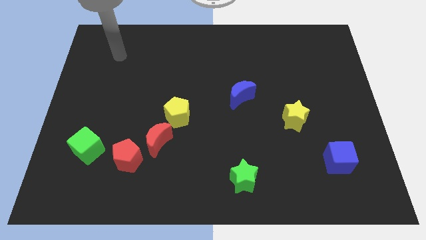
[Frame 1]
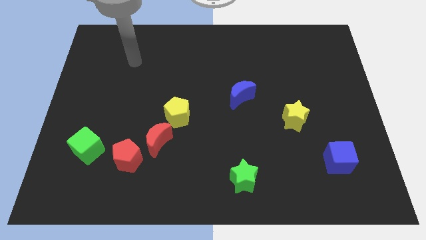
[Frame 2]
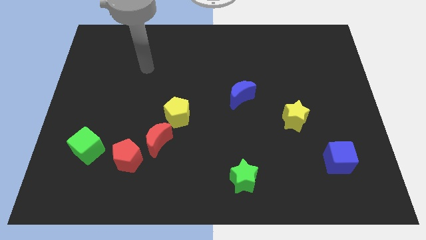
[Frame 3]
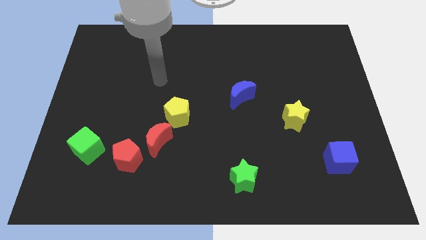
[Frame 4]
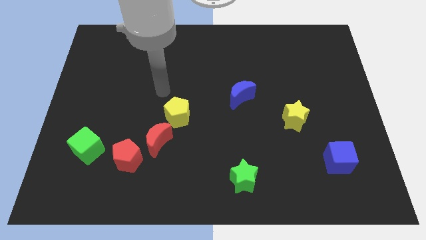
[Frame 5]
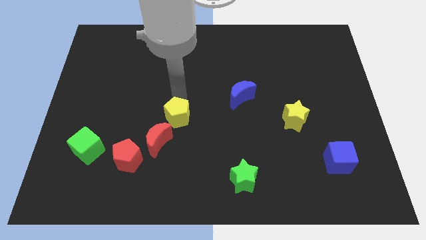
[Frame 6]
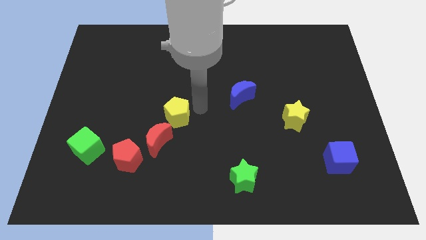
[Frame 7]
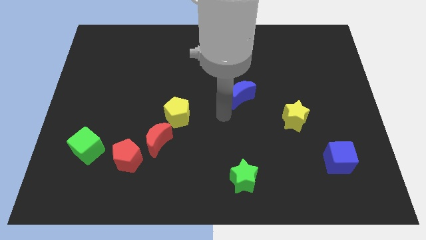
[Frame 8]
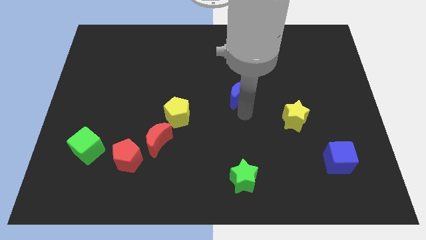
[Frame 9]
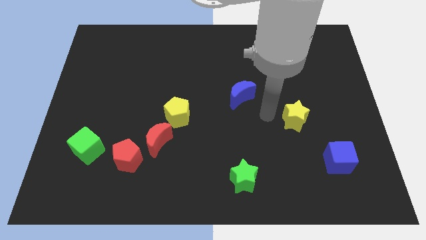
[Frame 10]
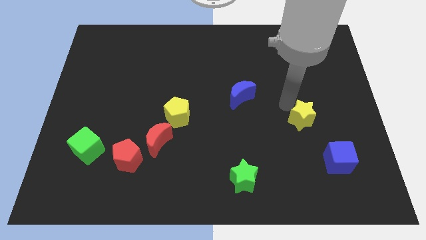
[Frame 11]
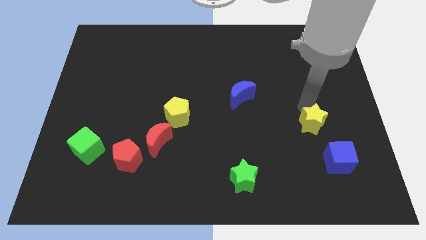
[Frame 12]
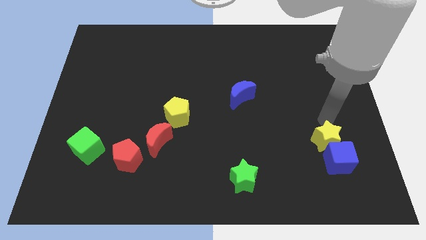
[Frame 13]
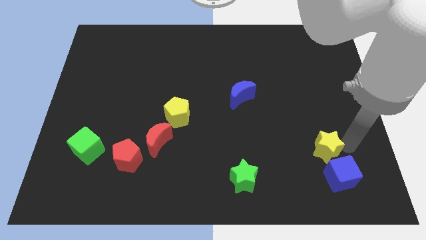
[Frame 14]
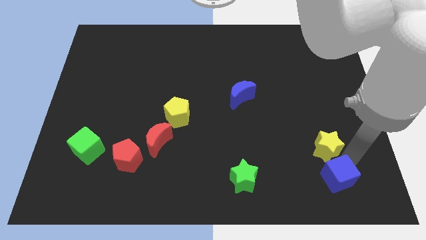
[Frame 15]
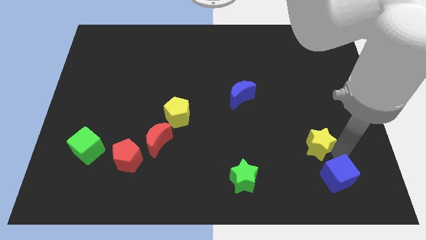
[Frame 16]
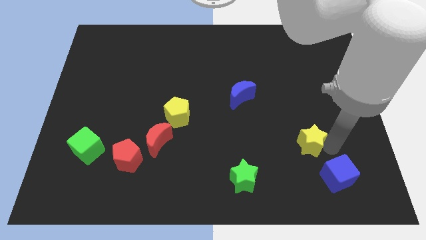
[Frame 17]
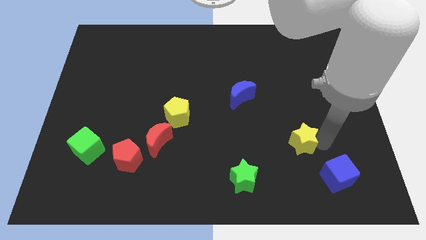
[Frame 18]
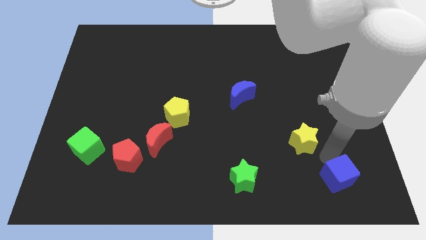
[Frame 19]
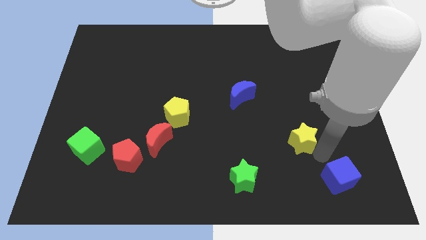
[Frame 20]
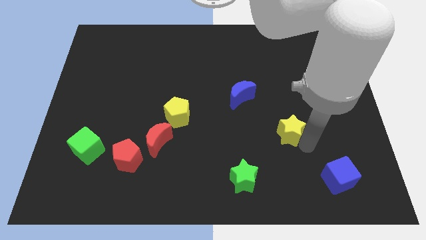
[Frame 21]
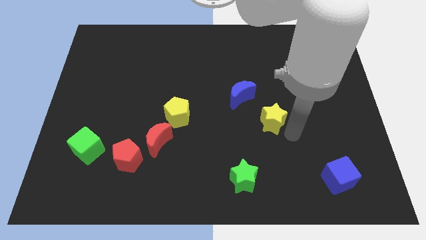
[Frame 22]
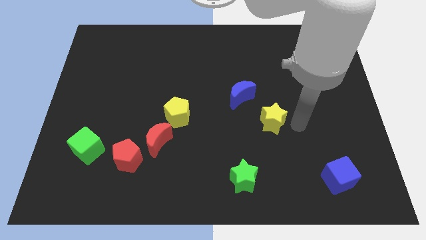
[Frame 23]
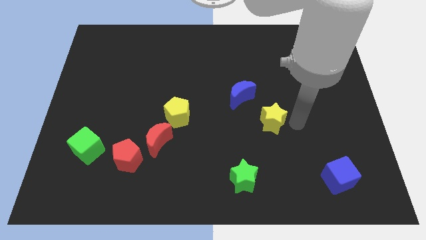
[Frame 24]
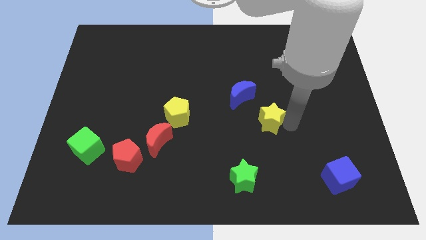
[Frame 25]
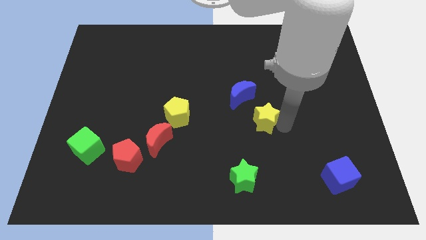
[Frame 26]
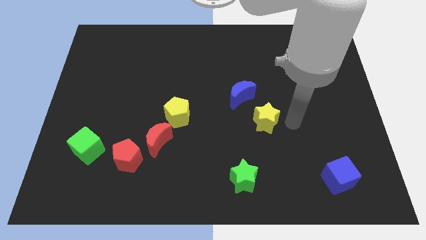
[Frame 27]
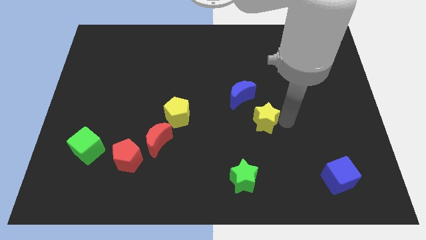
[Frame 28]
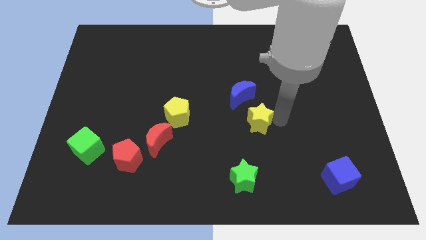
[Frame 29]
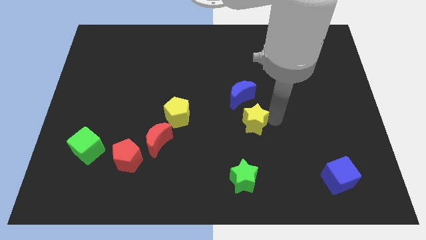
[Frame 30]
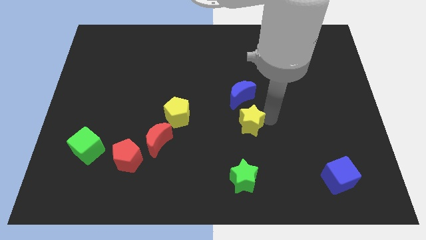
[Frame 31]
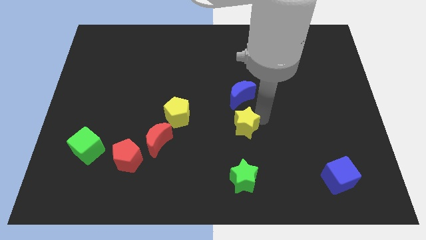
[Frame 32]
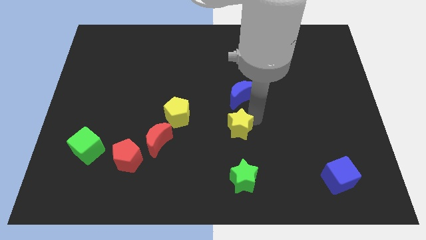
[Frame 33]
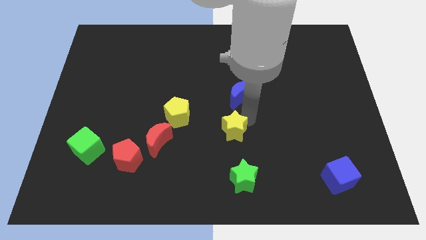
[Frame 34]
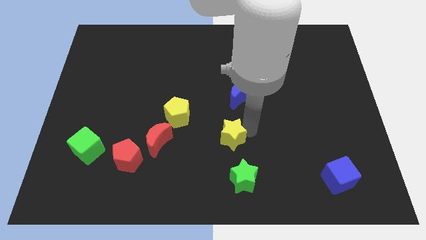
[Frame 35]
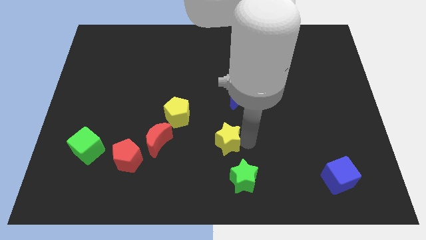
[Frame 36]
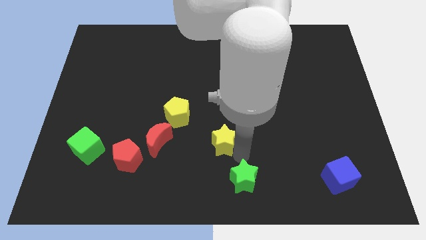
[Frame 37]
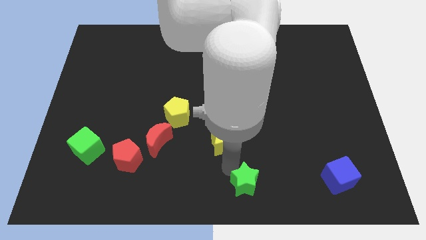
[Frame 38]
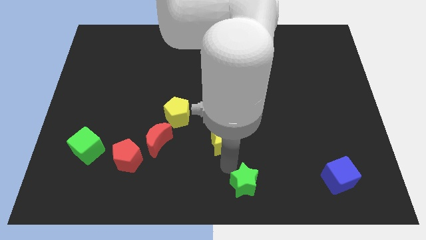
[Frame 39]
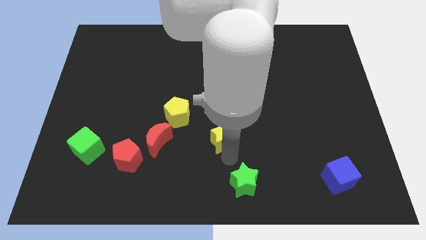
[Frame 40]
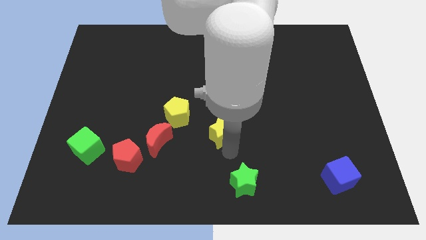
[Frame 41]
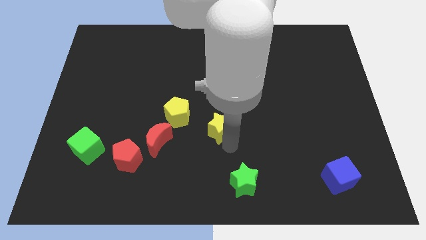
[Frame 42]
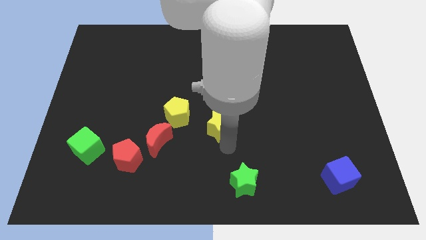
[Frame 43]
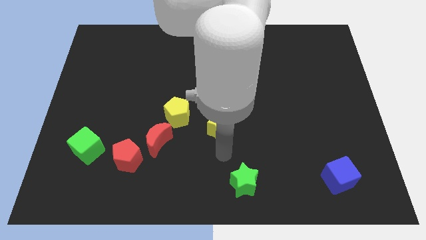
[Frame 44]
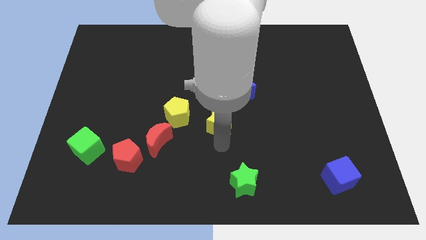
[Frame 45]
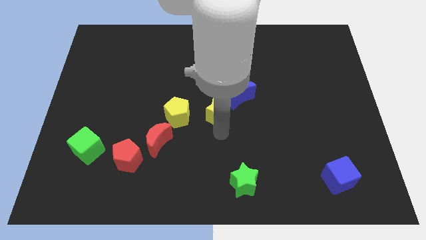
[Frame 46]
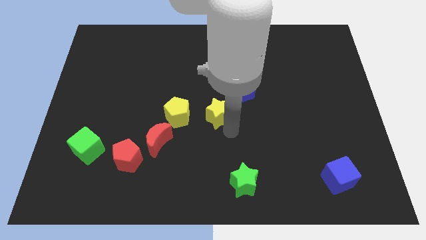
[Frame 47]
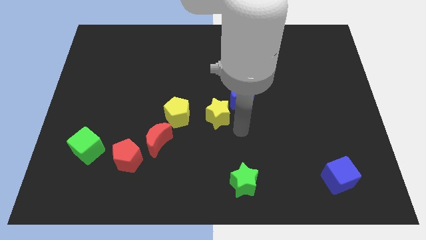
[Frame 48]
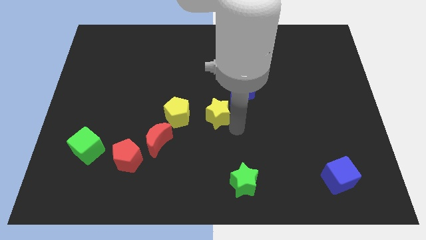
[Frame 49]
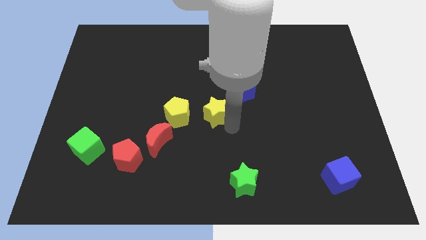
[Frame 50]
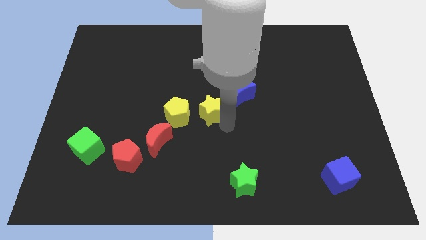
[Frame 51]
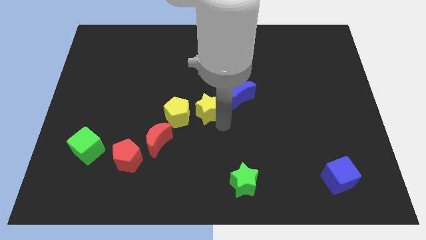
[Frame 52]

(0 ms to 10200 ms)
move the yellow star left

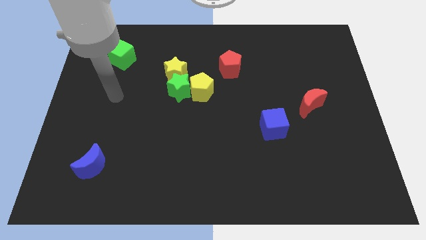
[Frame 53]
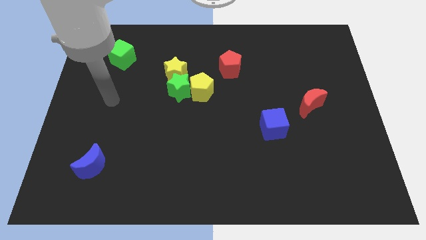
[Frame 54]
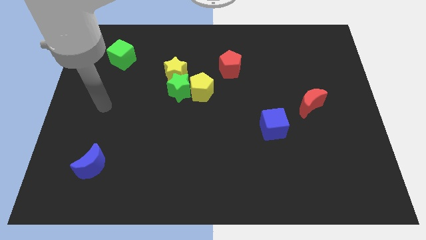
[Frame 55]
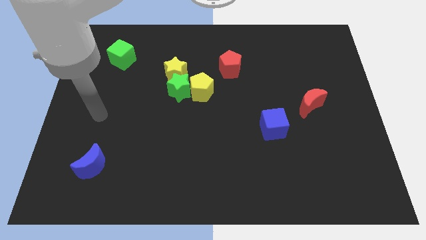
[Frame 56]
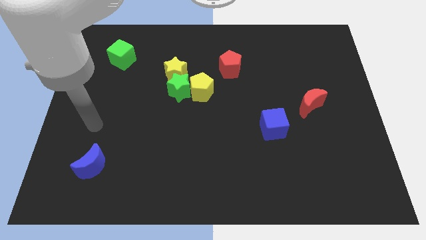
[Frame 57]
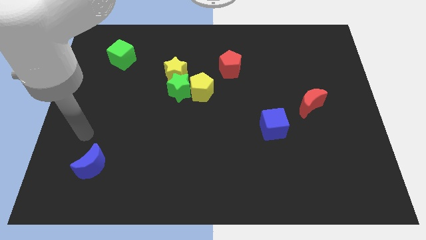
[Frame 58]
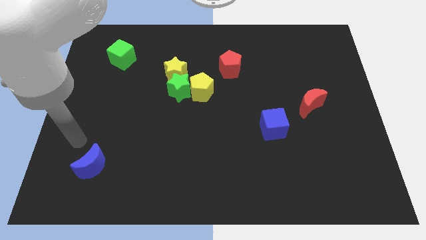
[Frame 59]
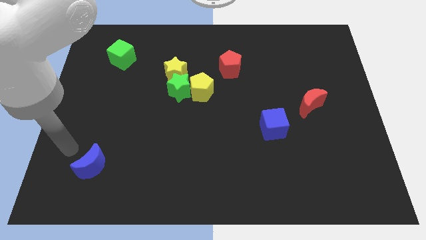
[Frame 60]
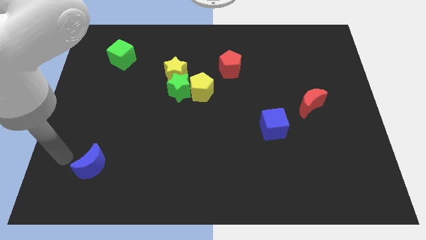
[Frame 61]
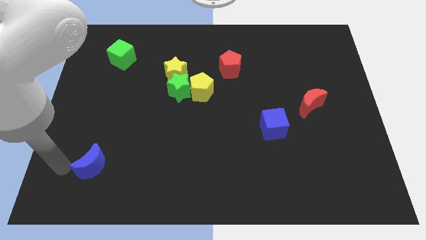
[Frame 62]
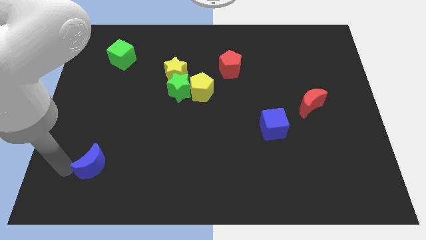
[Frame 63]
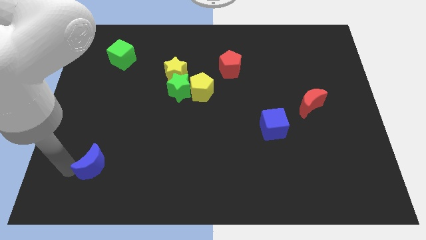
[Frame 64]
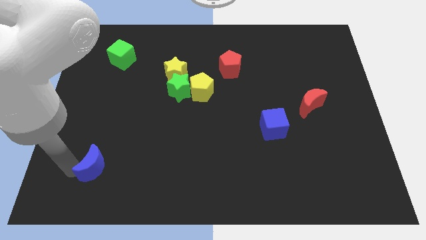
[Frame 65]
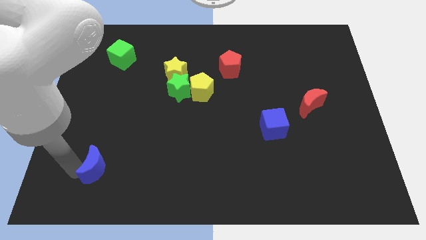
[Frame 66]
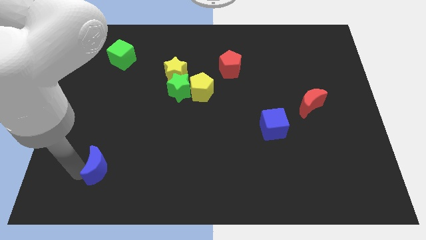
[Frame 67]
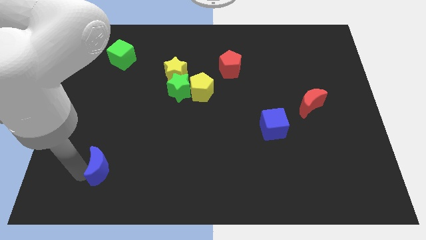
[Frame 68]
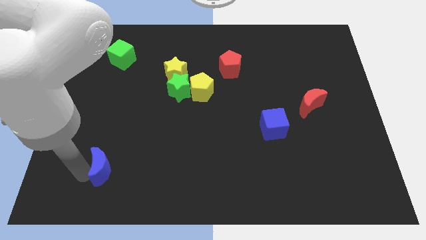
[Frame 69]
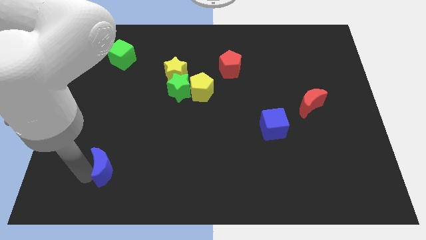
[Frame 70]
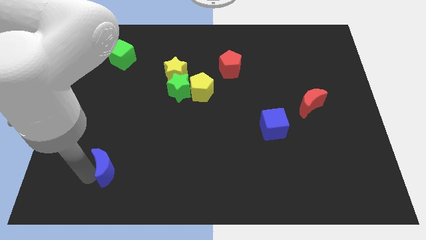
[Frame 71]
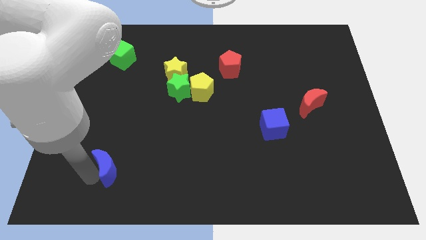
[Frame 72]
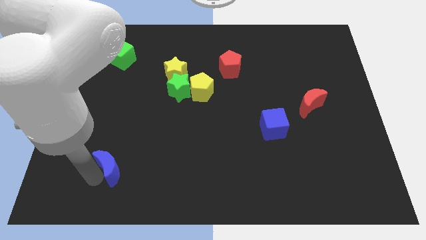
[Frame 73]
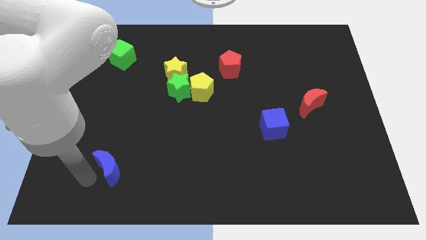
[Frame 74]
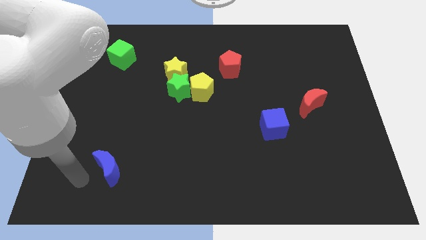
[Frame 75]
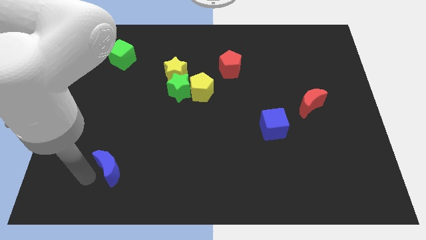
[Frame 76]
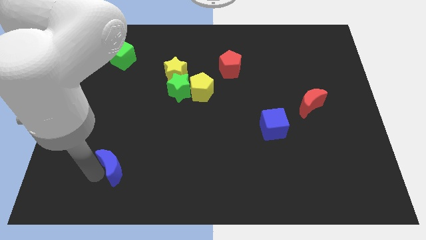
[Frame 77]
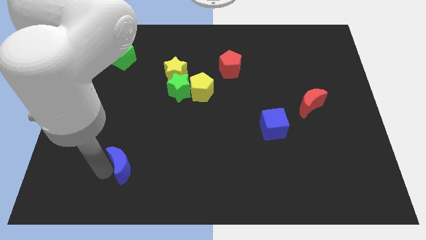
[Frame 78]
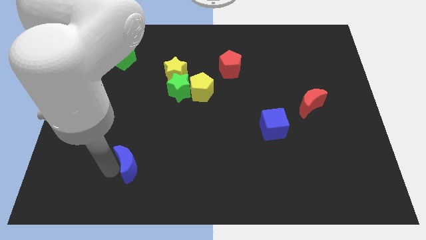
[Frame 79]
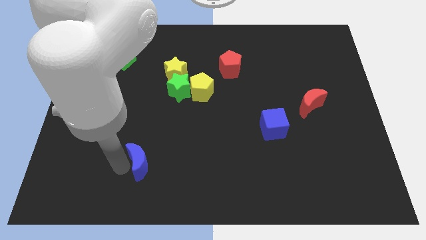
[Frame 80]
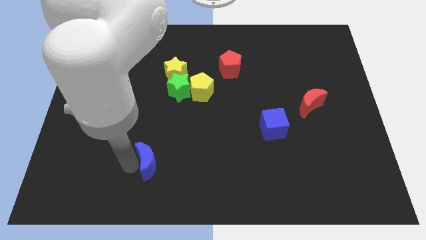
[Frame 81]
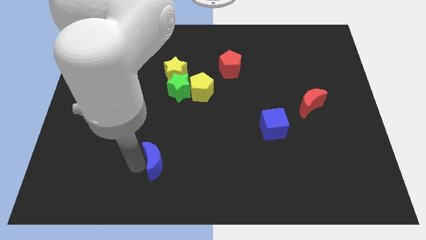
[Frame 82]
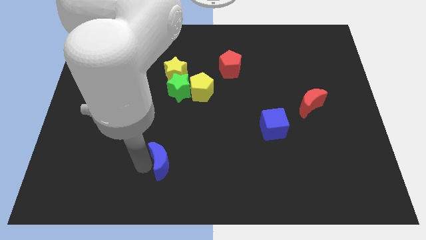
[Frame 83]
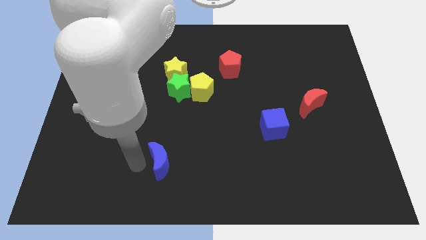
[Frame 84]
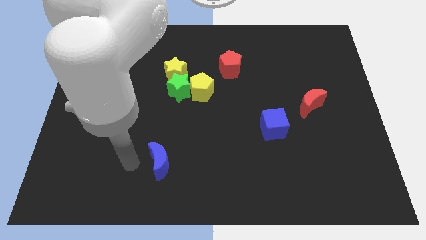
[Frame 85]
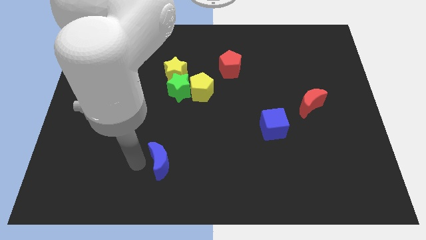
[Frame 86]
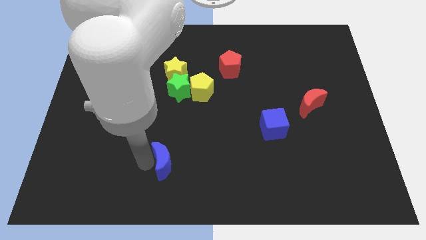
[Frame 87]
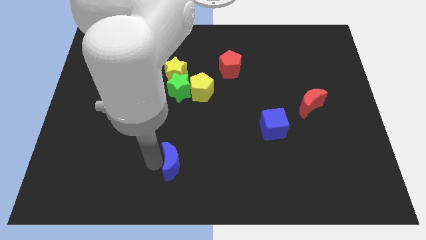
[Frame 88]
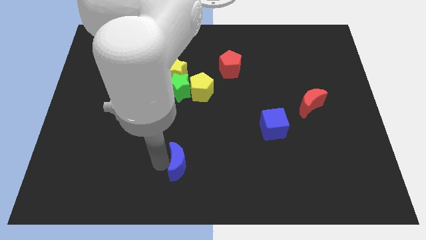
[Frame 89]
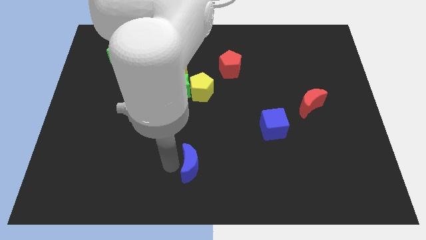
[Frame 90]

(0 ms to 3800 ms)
push the blue moon right
